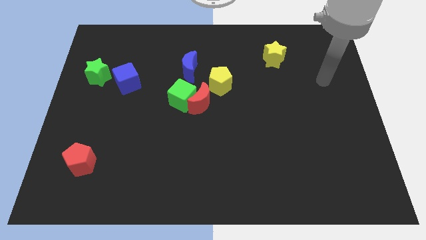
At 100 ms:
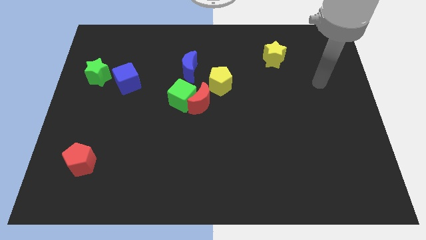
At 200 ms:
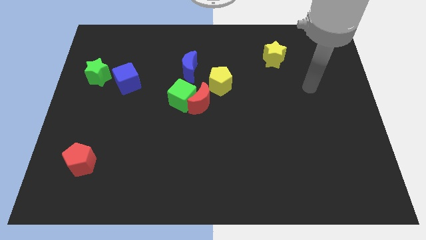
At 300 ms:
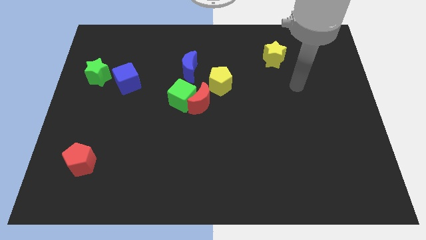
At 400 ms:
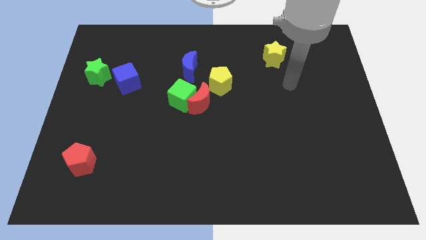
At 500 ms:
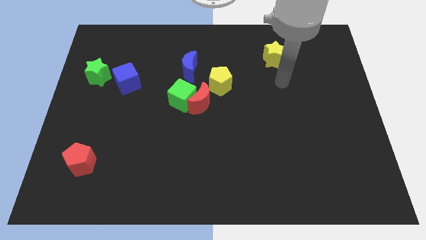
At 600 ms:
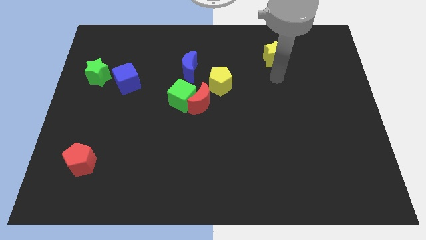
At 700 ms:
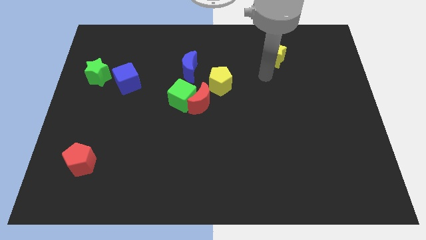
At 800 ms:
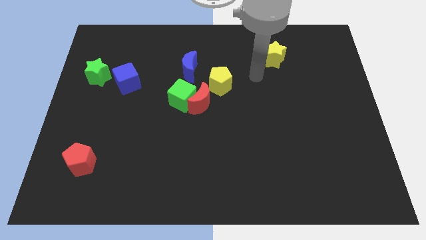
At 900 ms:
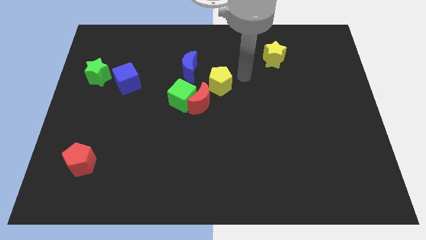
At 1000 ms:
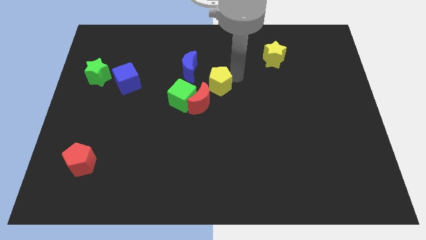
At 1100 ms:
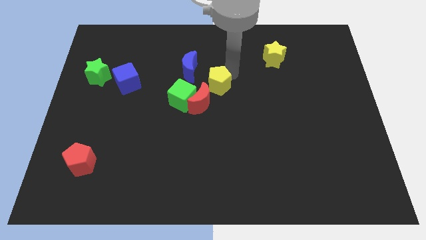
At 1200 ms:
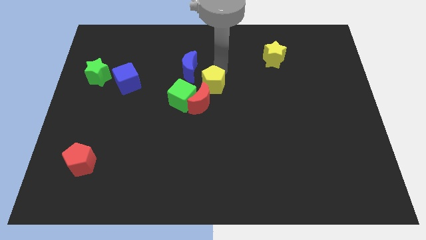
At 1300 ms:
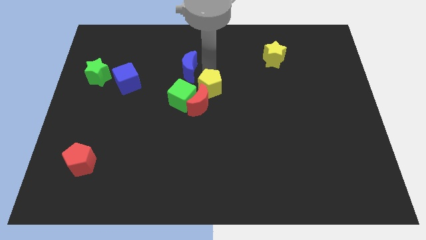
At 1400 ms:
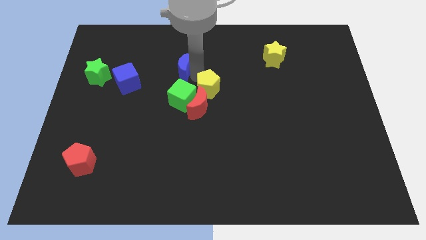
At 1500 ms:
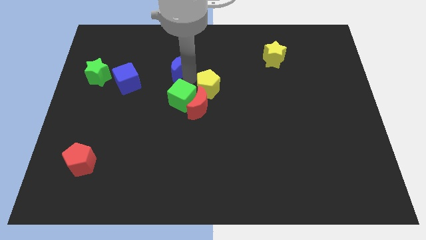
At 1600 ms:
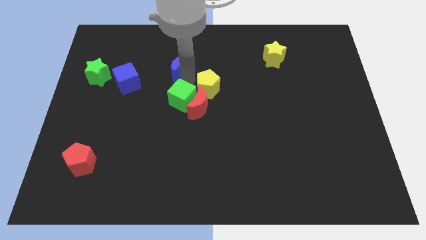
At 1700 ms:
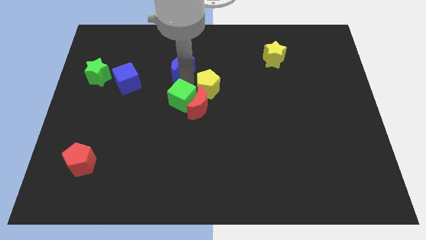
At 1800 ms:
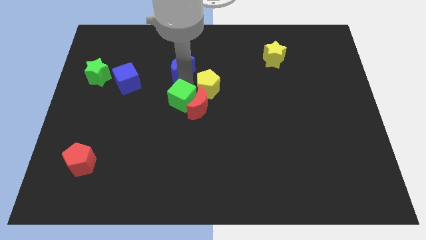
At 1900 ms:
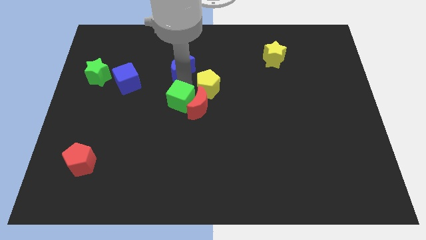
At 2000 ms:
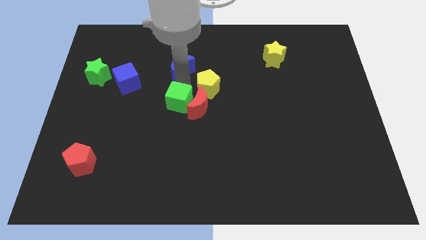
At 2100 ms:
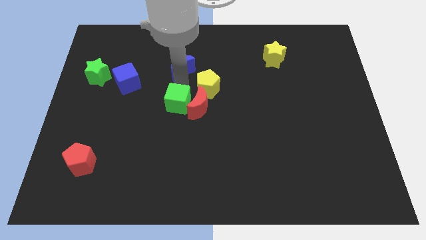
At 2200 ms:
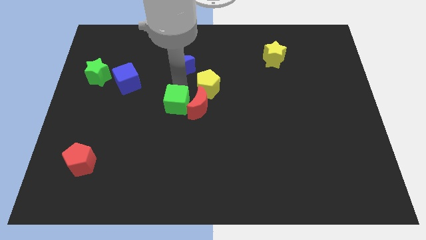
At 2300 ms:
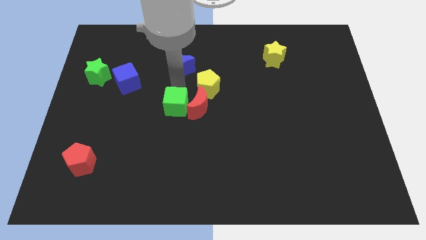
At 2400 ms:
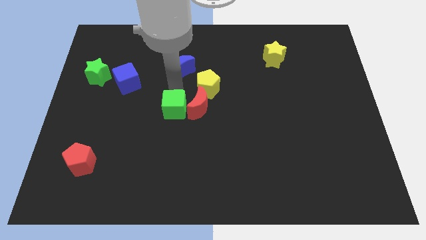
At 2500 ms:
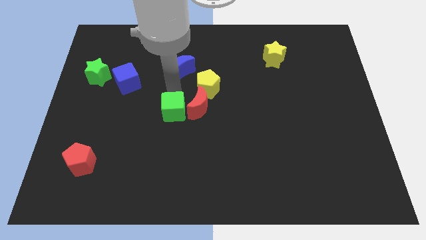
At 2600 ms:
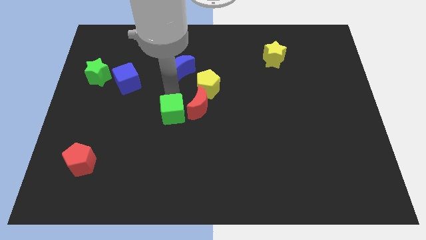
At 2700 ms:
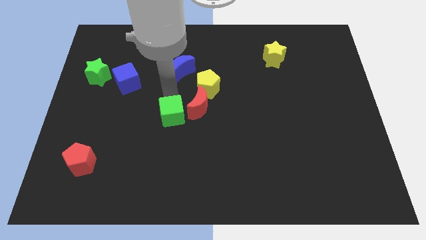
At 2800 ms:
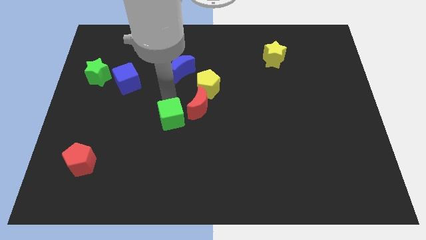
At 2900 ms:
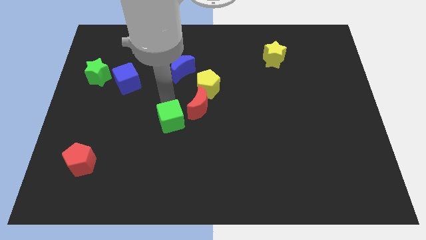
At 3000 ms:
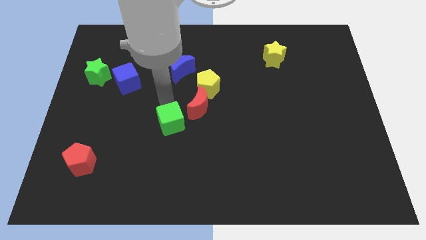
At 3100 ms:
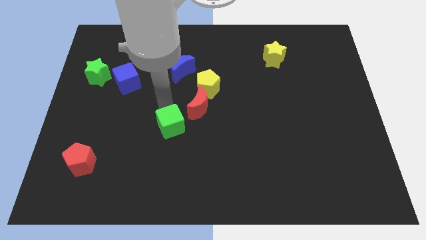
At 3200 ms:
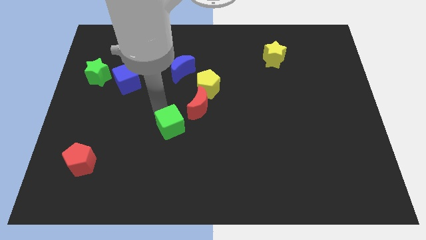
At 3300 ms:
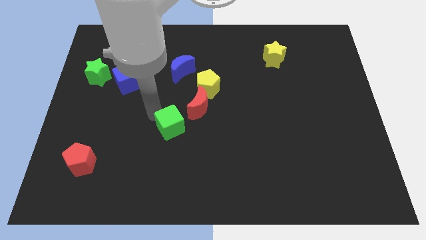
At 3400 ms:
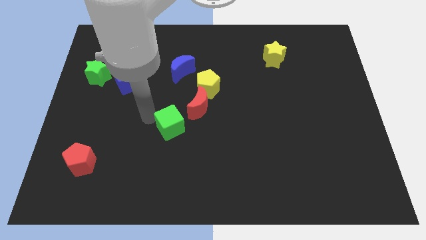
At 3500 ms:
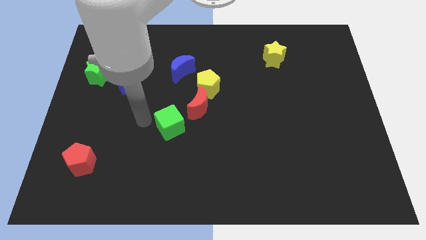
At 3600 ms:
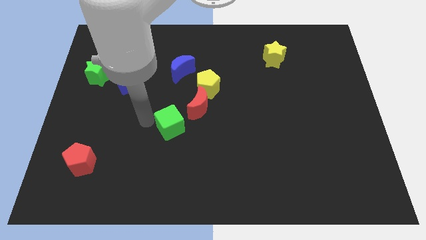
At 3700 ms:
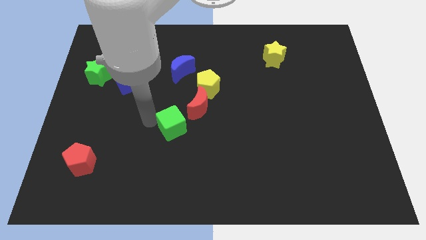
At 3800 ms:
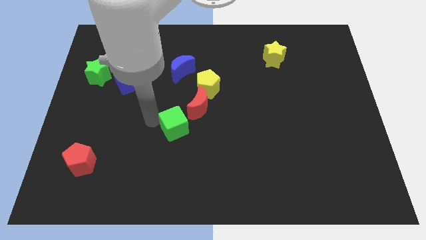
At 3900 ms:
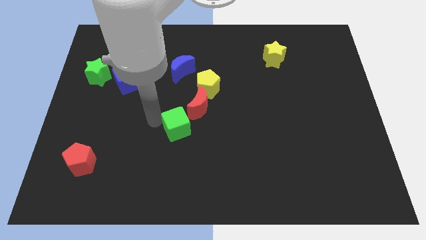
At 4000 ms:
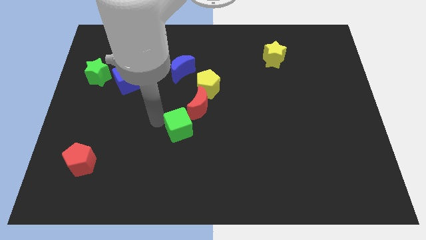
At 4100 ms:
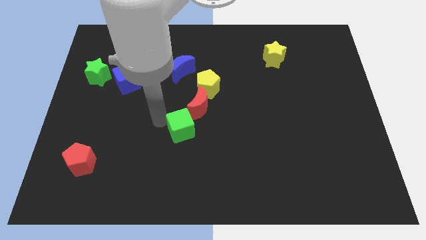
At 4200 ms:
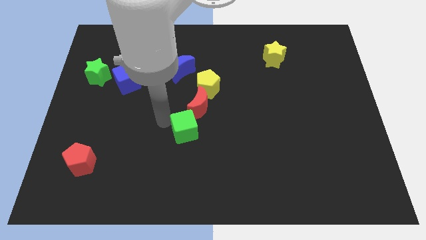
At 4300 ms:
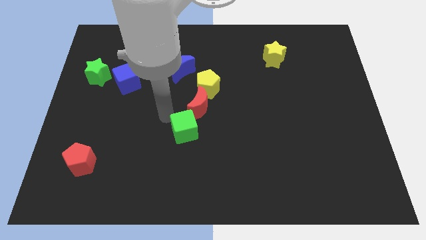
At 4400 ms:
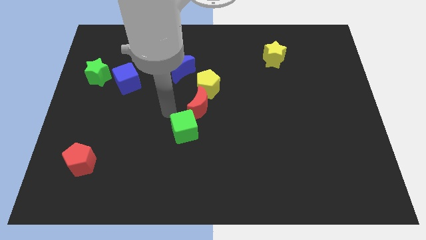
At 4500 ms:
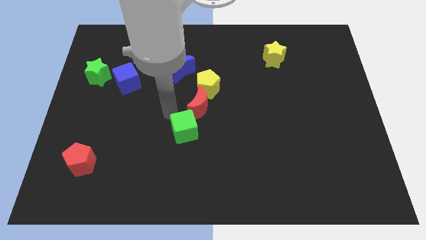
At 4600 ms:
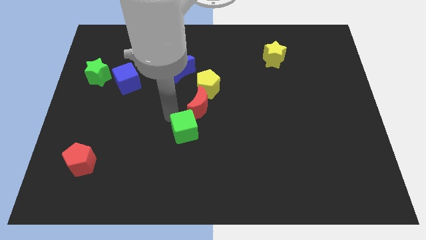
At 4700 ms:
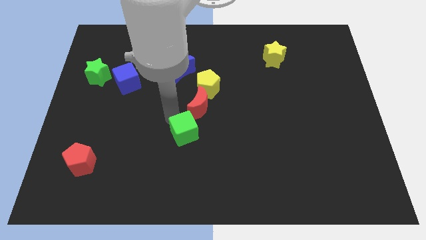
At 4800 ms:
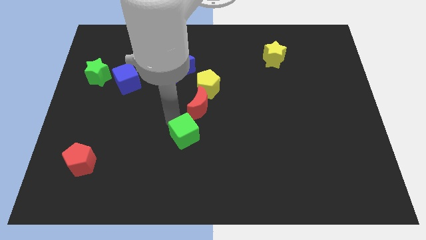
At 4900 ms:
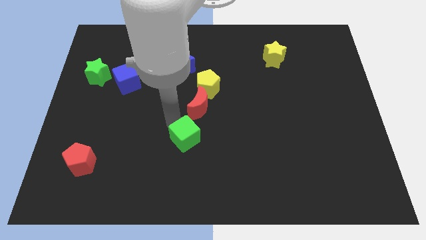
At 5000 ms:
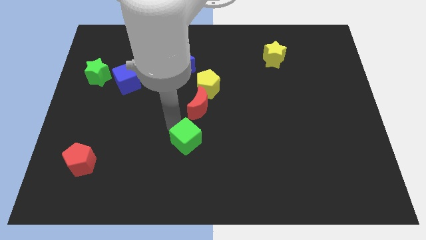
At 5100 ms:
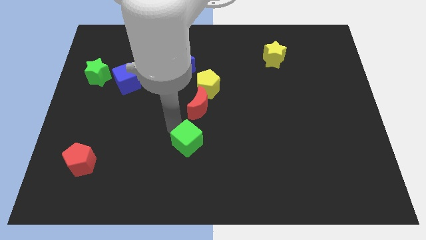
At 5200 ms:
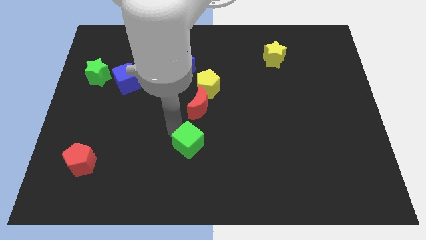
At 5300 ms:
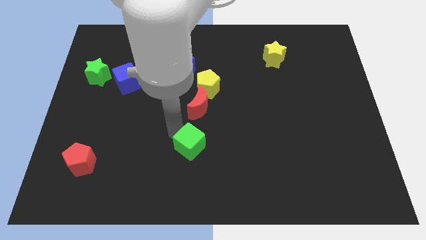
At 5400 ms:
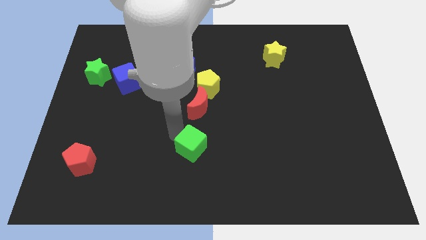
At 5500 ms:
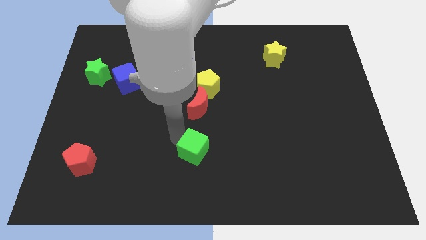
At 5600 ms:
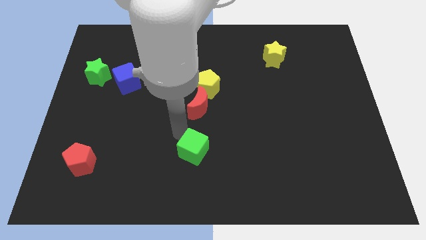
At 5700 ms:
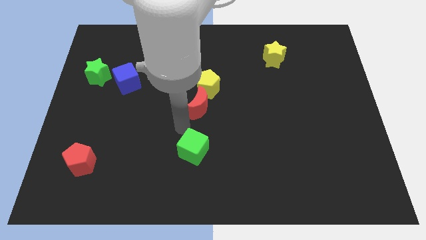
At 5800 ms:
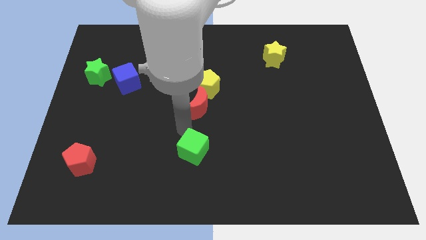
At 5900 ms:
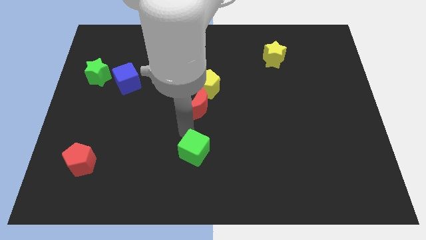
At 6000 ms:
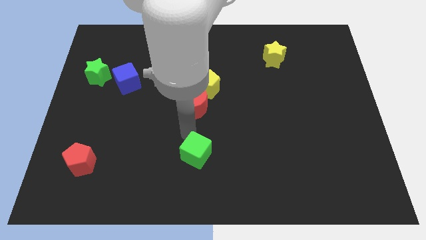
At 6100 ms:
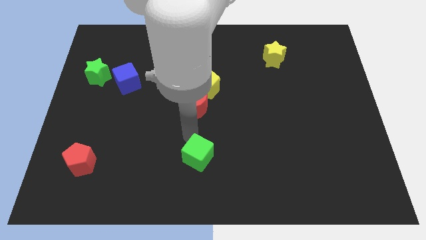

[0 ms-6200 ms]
slide the green cube to the bottom

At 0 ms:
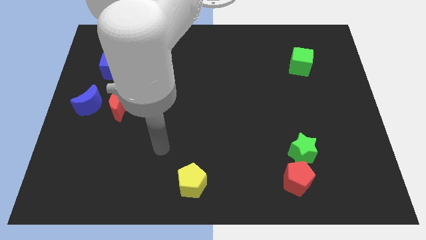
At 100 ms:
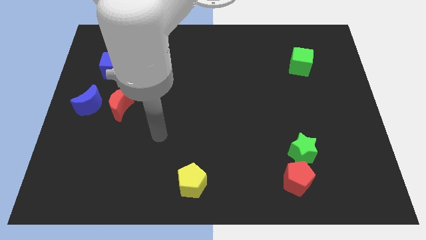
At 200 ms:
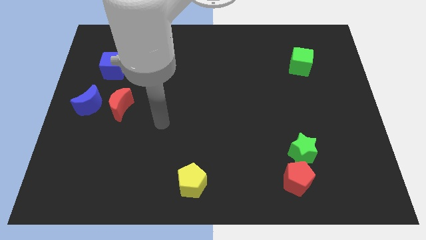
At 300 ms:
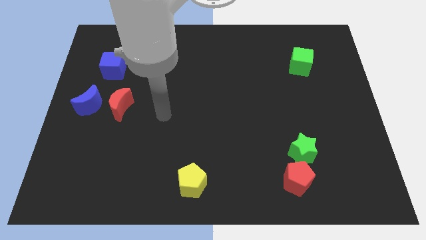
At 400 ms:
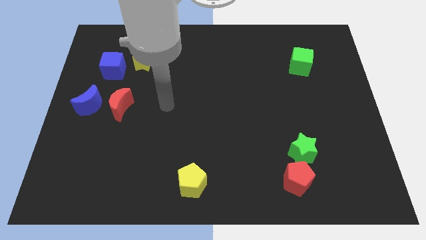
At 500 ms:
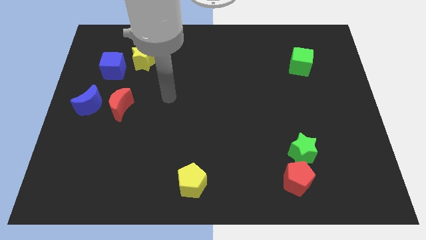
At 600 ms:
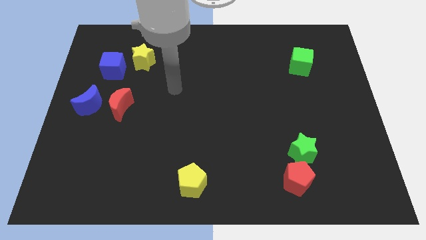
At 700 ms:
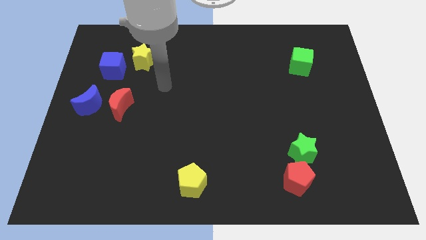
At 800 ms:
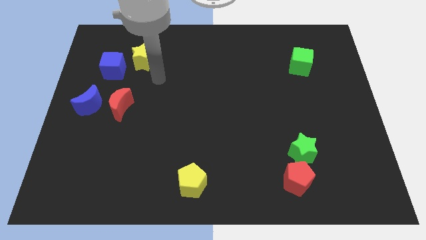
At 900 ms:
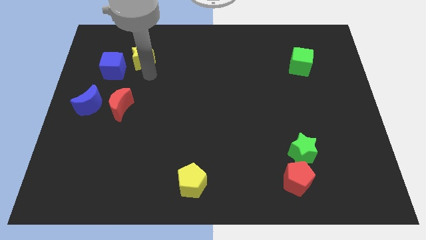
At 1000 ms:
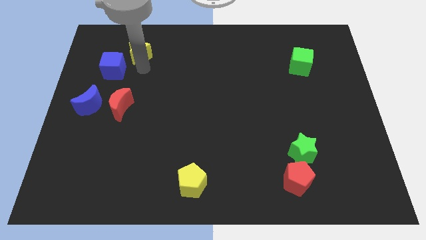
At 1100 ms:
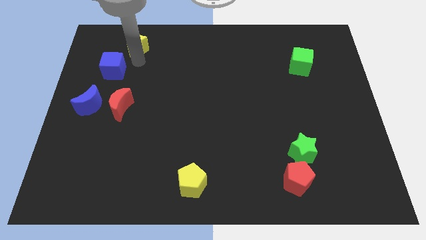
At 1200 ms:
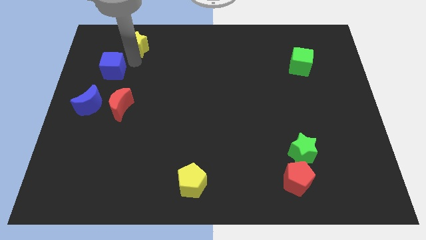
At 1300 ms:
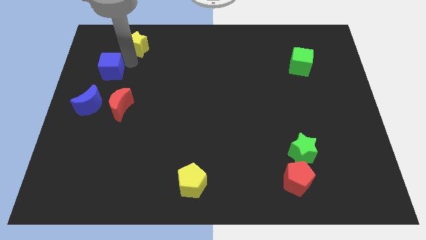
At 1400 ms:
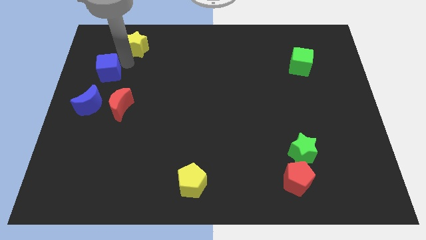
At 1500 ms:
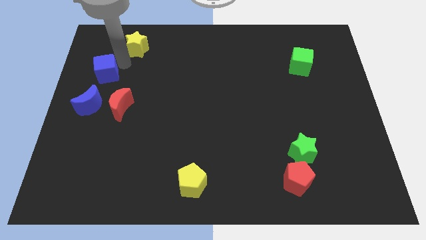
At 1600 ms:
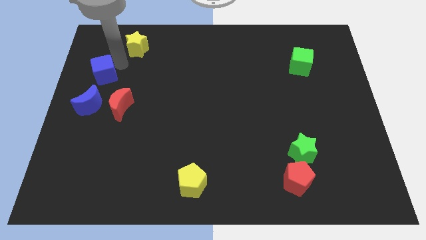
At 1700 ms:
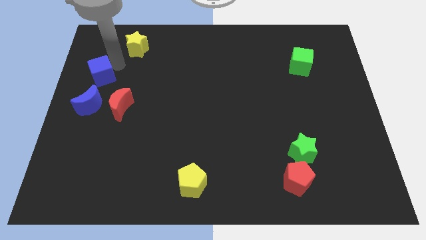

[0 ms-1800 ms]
put the blue cube to the left side
